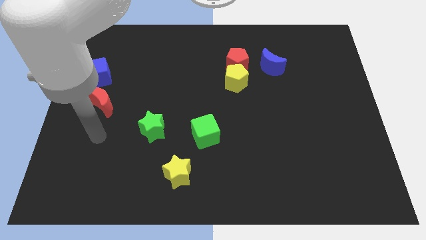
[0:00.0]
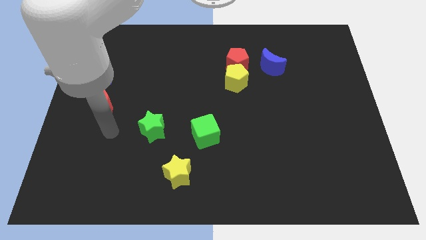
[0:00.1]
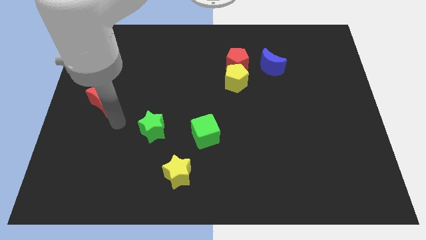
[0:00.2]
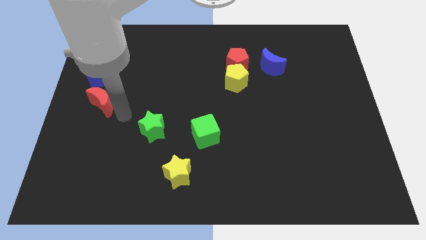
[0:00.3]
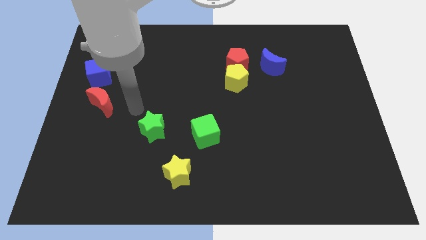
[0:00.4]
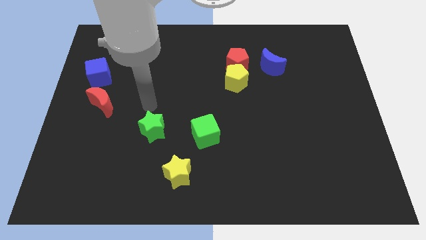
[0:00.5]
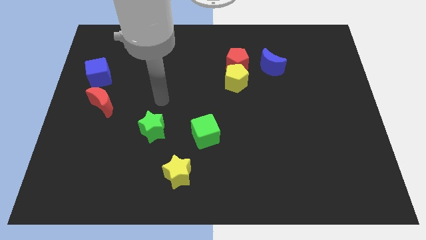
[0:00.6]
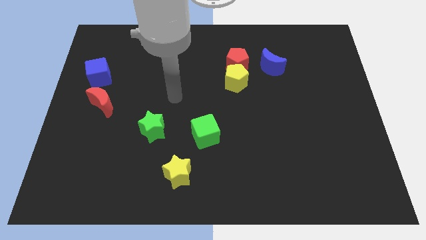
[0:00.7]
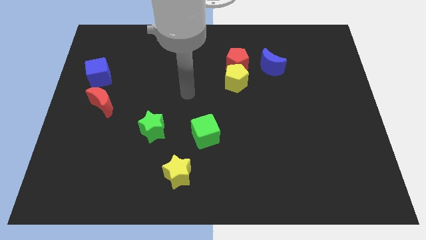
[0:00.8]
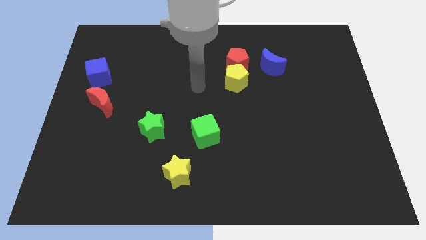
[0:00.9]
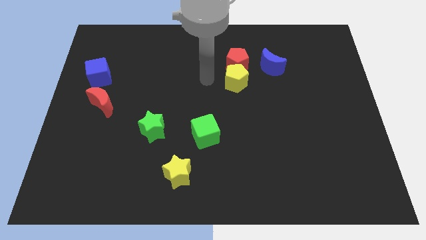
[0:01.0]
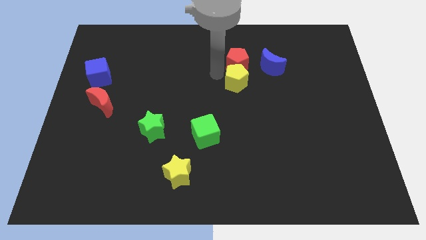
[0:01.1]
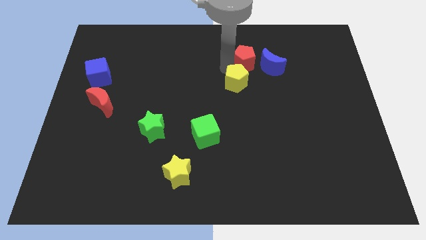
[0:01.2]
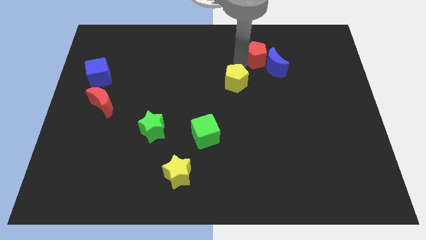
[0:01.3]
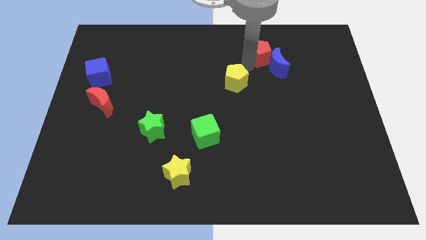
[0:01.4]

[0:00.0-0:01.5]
pull the yellow pentagon apart from the red pentagon

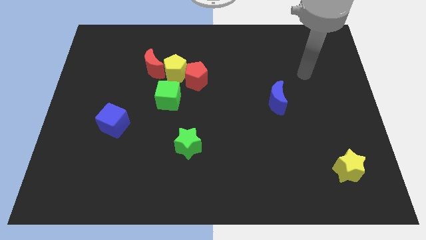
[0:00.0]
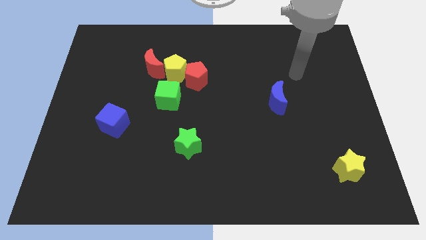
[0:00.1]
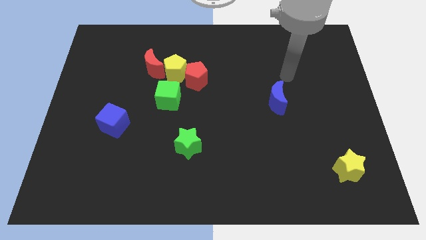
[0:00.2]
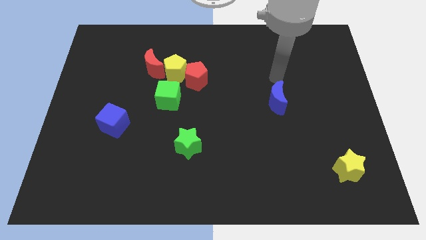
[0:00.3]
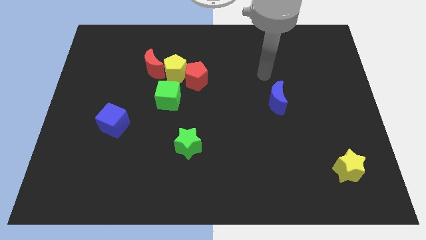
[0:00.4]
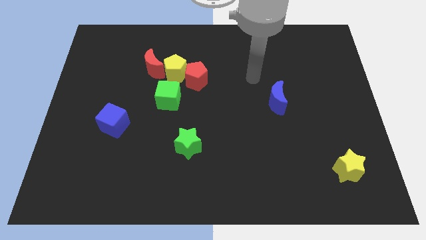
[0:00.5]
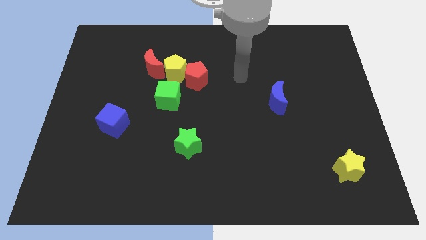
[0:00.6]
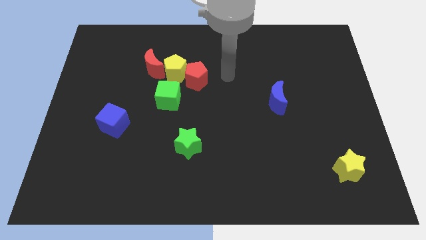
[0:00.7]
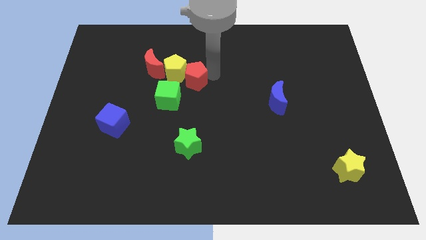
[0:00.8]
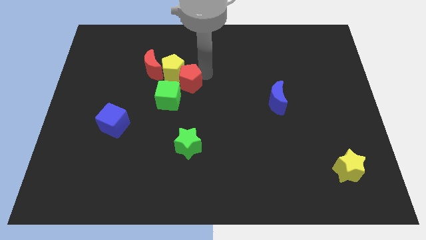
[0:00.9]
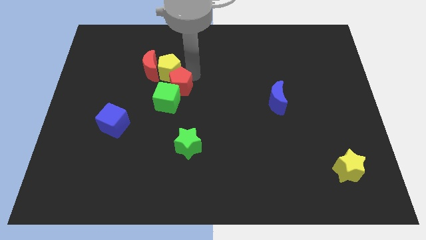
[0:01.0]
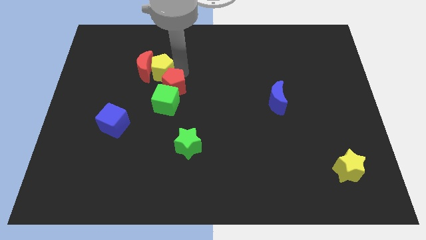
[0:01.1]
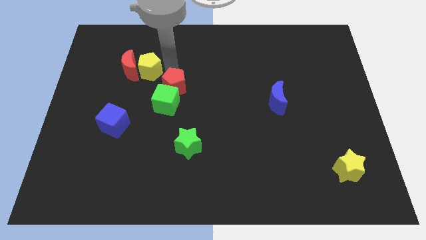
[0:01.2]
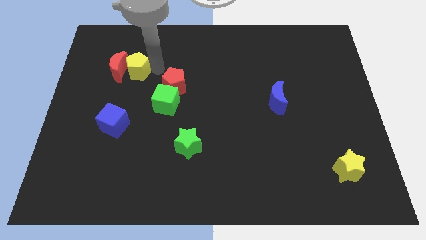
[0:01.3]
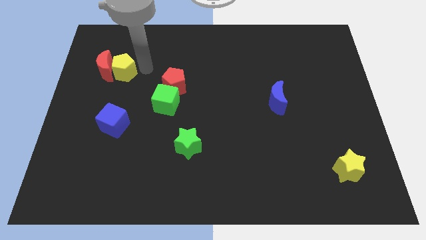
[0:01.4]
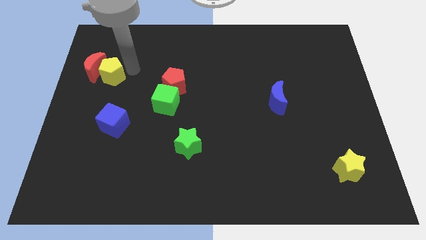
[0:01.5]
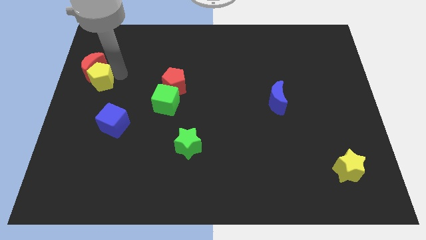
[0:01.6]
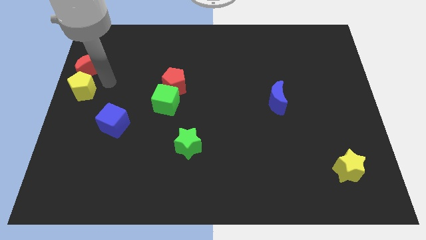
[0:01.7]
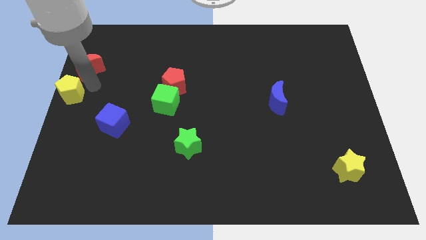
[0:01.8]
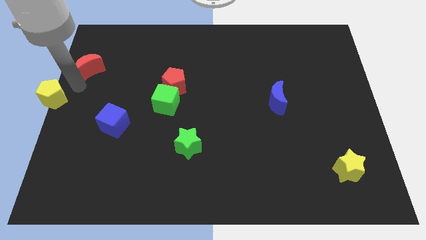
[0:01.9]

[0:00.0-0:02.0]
separate the red moon from the yellow pentagon

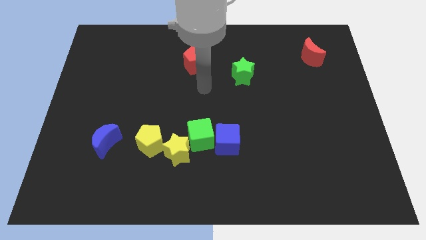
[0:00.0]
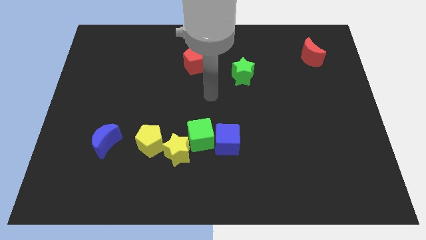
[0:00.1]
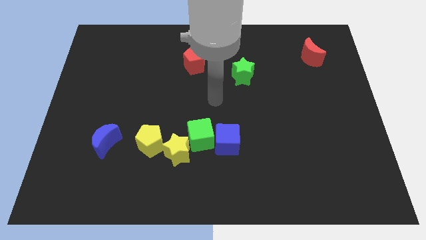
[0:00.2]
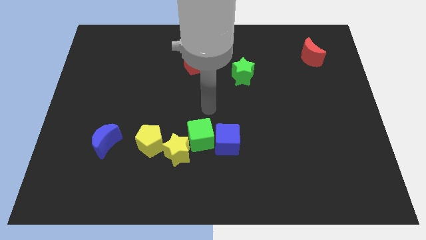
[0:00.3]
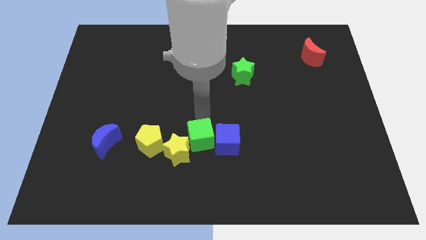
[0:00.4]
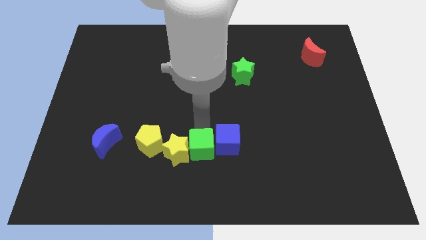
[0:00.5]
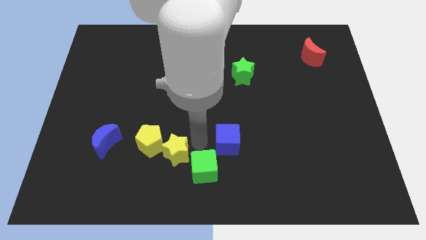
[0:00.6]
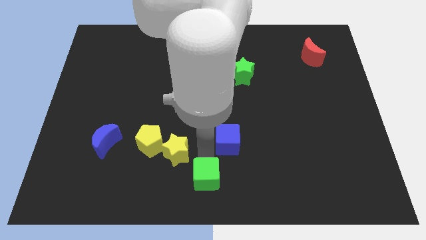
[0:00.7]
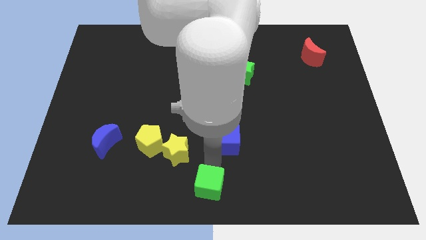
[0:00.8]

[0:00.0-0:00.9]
pull the blue cube apart from the green cube

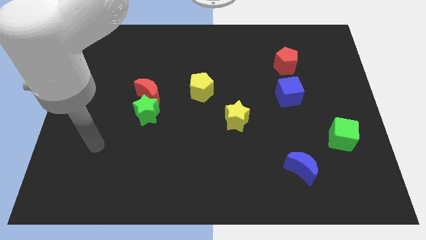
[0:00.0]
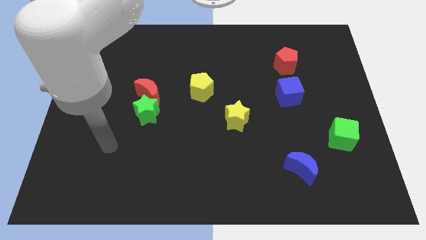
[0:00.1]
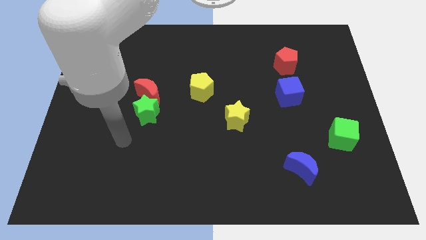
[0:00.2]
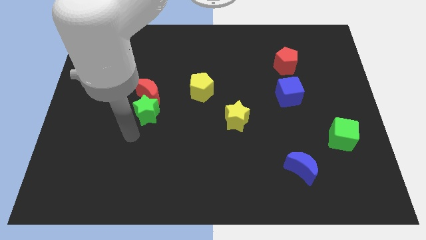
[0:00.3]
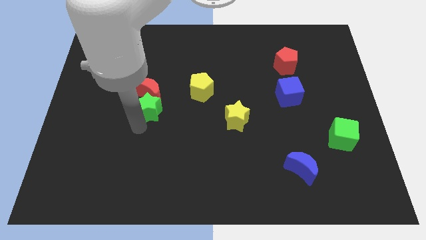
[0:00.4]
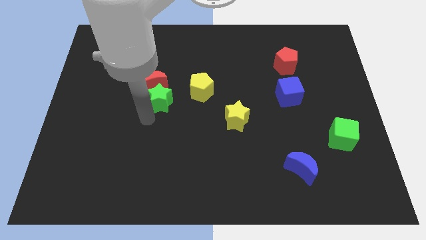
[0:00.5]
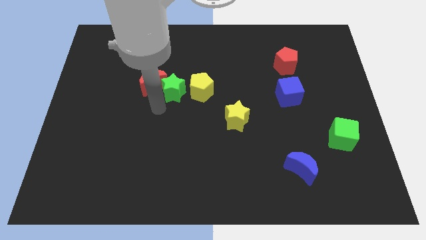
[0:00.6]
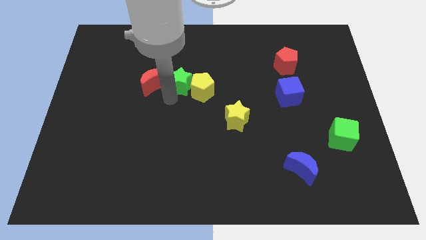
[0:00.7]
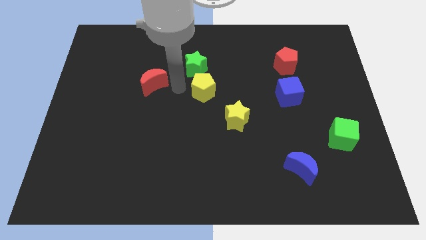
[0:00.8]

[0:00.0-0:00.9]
move the red moon away from the green star

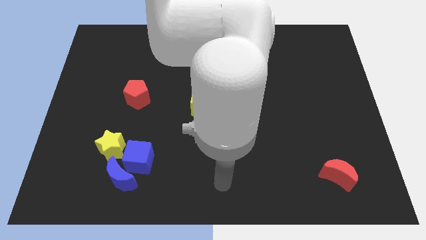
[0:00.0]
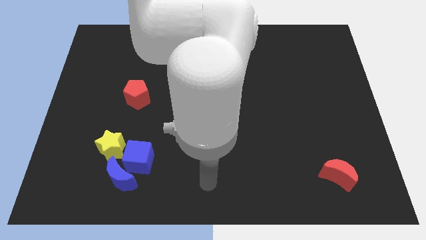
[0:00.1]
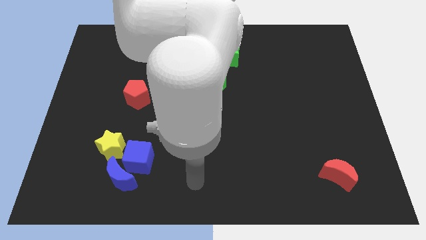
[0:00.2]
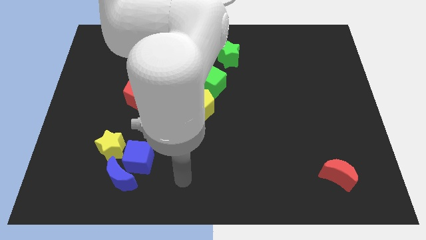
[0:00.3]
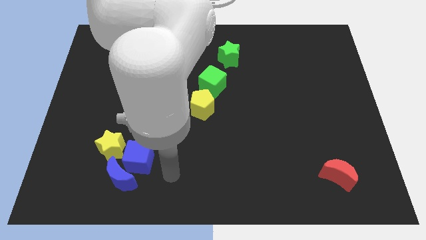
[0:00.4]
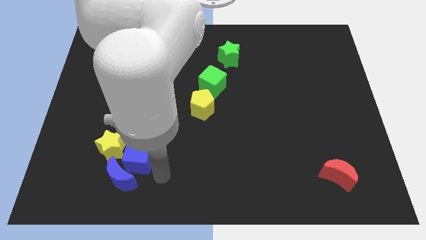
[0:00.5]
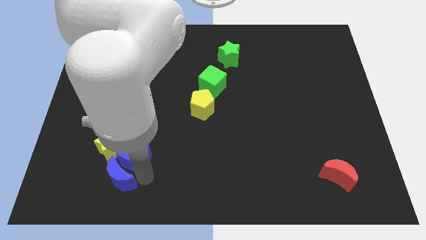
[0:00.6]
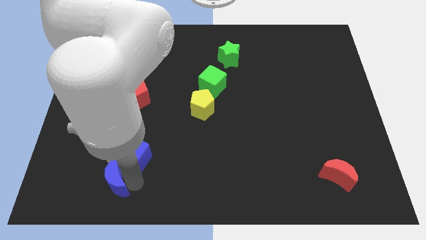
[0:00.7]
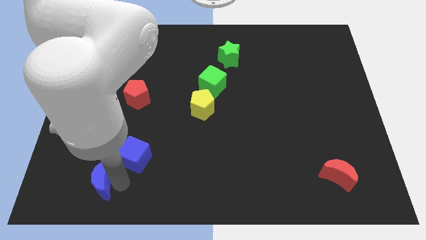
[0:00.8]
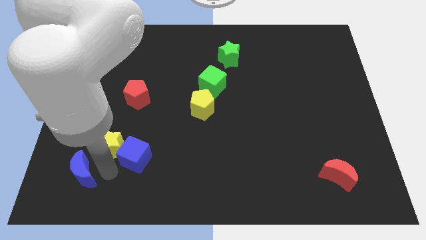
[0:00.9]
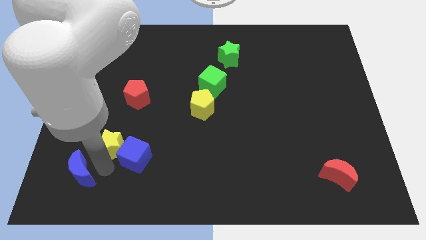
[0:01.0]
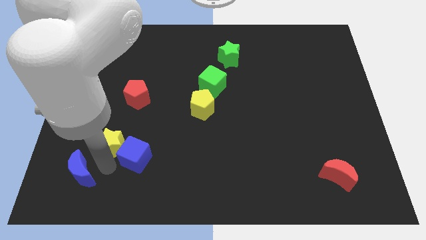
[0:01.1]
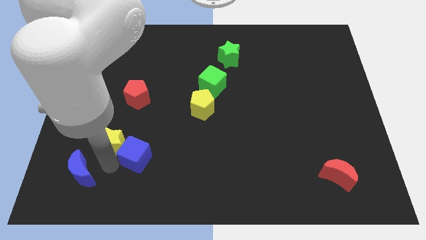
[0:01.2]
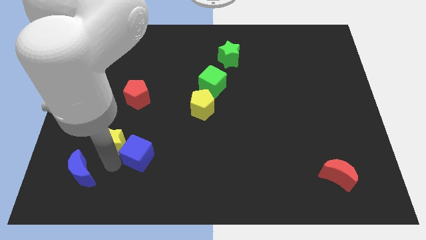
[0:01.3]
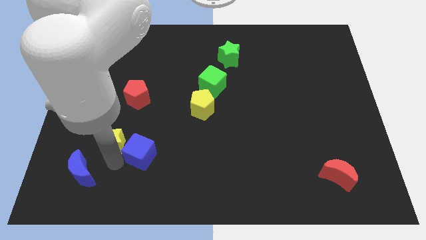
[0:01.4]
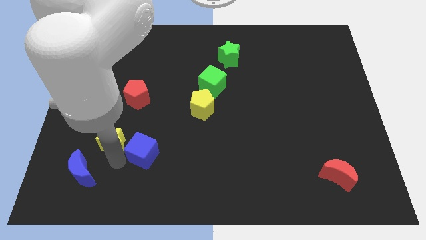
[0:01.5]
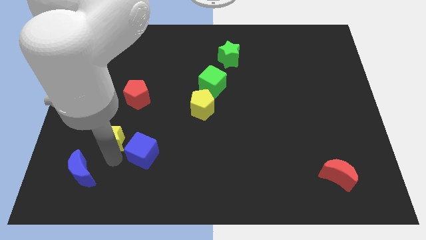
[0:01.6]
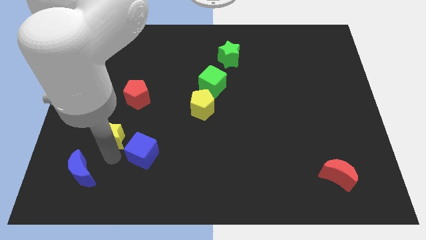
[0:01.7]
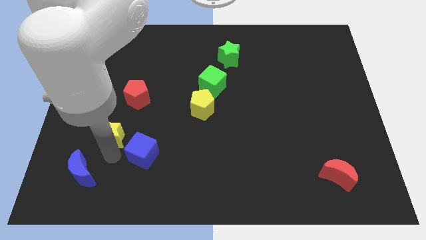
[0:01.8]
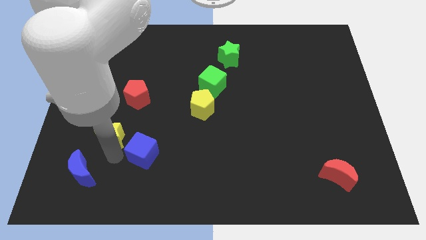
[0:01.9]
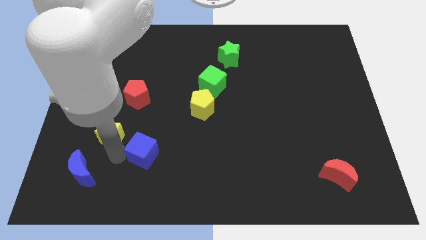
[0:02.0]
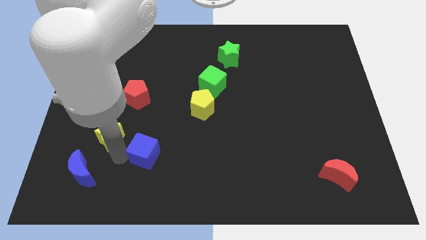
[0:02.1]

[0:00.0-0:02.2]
move the blue cube away from the blue moon and yellow star

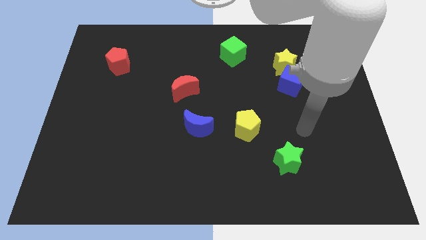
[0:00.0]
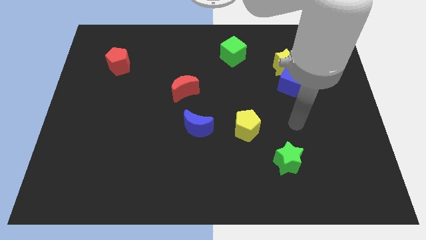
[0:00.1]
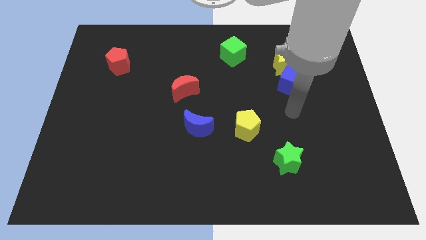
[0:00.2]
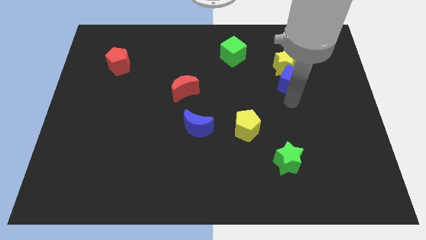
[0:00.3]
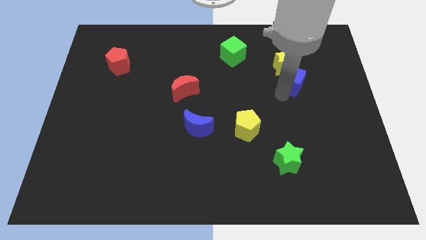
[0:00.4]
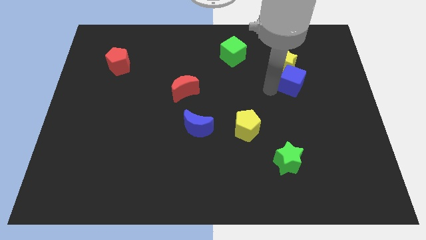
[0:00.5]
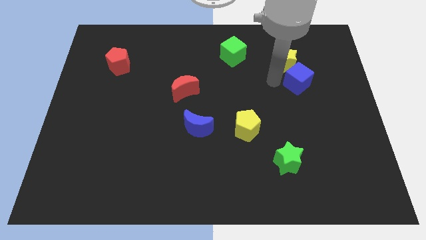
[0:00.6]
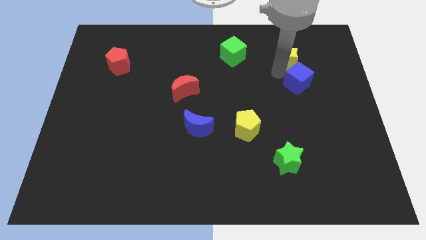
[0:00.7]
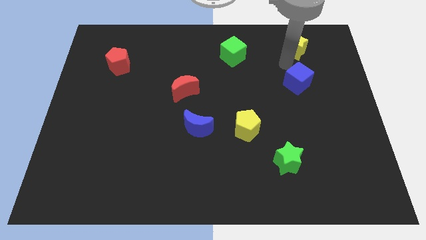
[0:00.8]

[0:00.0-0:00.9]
separate the blue cube from the yellow star

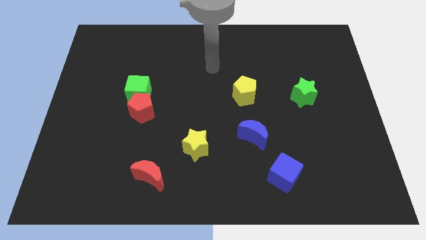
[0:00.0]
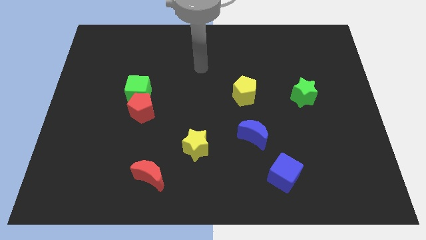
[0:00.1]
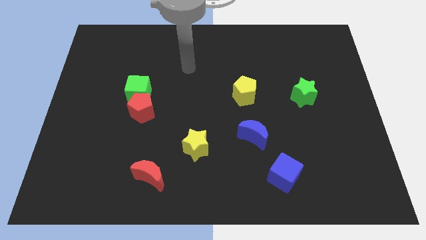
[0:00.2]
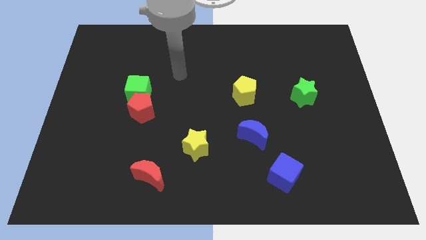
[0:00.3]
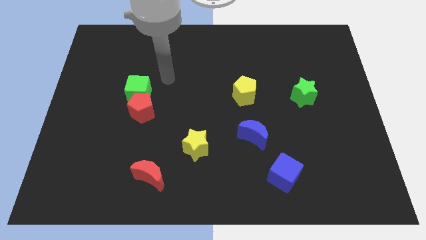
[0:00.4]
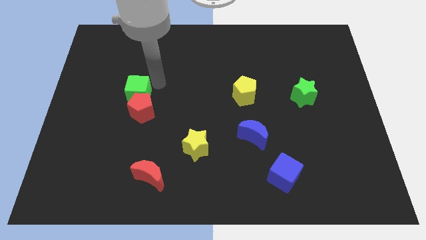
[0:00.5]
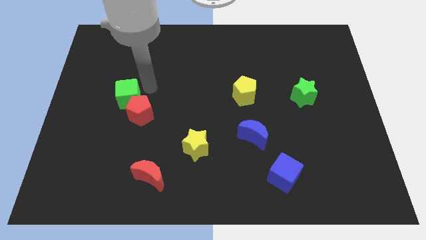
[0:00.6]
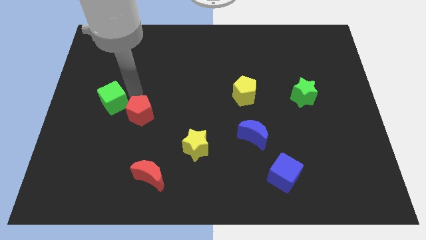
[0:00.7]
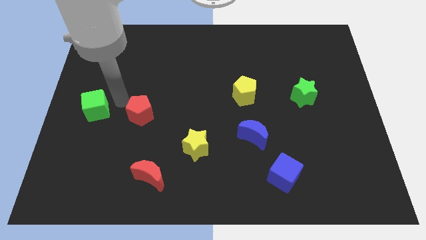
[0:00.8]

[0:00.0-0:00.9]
separate the red pentagon from the green cube
